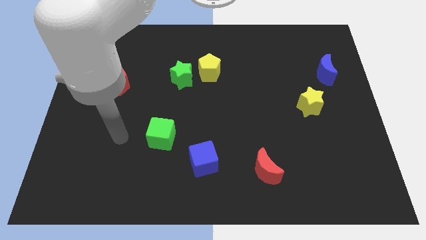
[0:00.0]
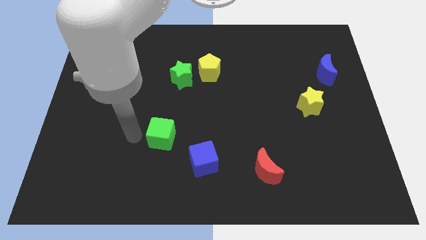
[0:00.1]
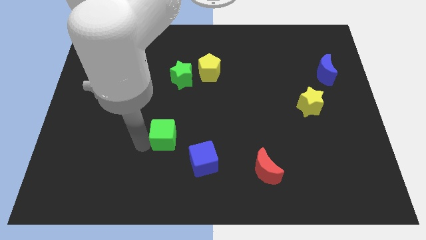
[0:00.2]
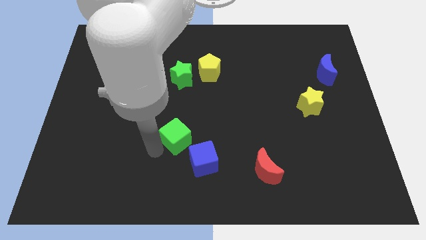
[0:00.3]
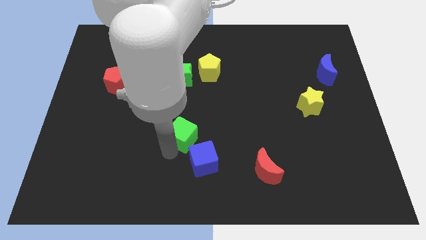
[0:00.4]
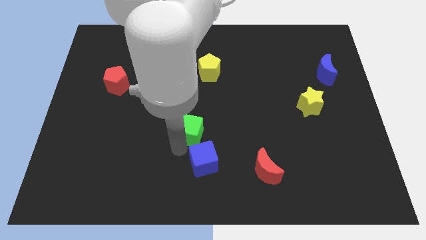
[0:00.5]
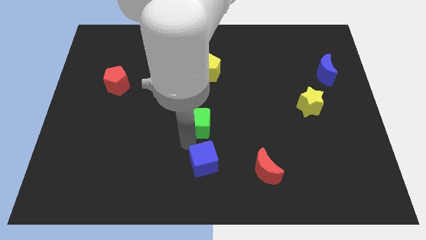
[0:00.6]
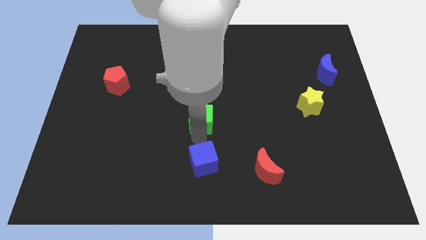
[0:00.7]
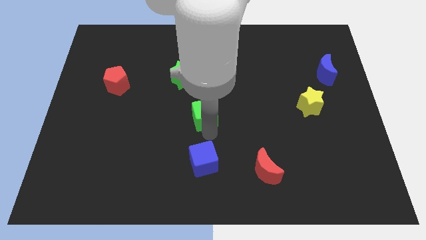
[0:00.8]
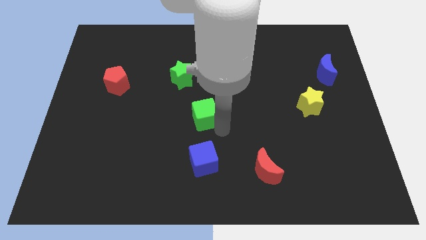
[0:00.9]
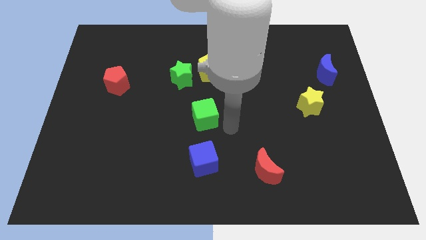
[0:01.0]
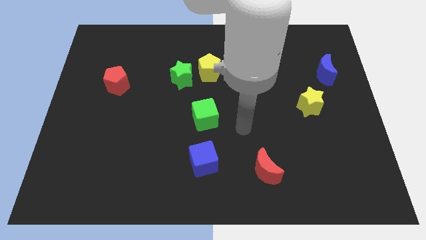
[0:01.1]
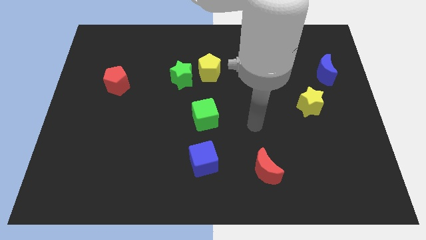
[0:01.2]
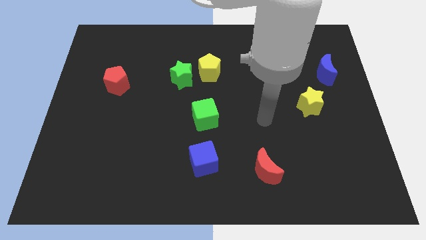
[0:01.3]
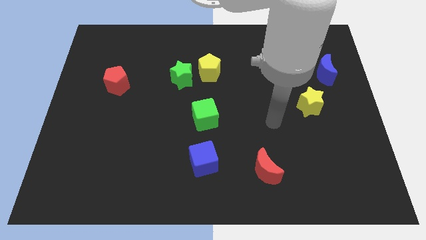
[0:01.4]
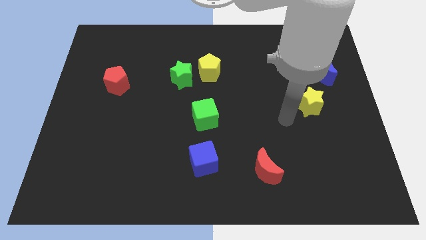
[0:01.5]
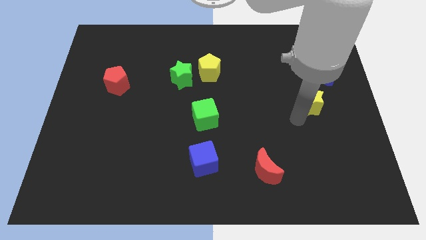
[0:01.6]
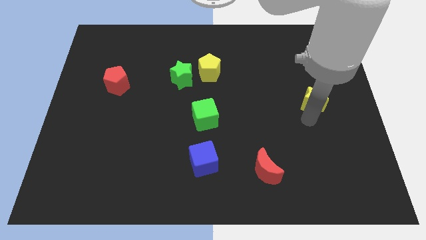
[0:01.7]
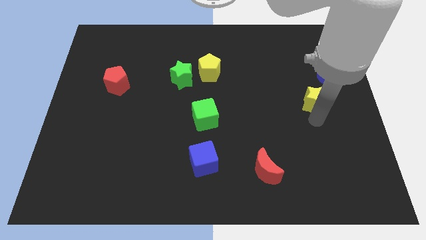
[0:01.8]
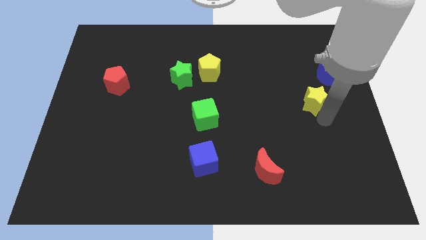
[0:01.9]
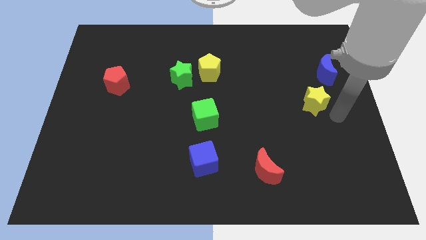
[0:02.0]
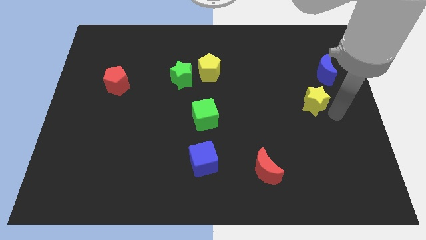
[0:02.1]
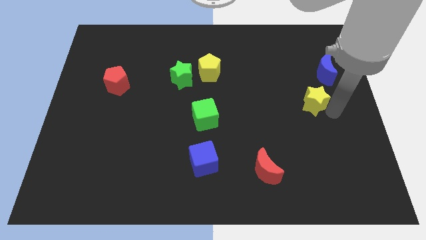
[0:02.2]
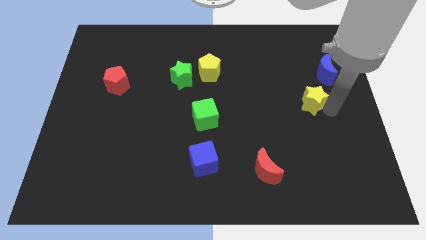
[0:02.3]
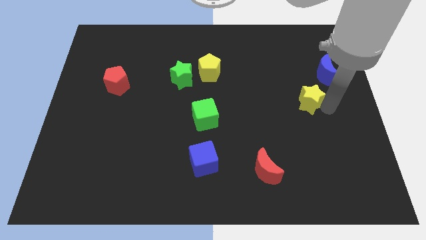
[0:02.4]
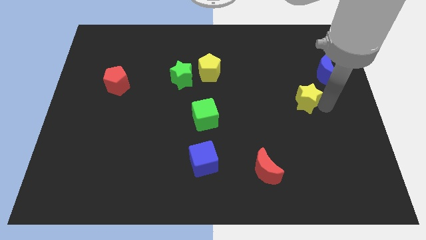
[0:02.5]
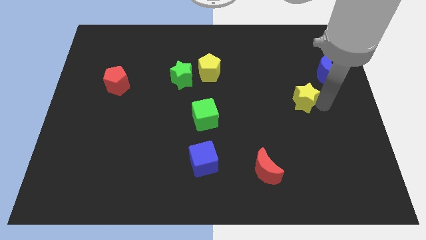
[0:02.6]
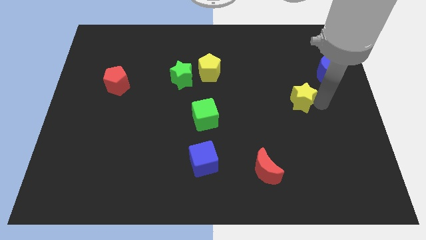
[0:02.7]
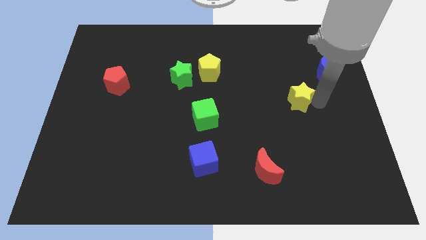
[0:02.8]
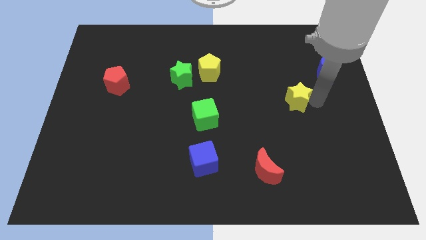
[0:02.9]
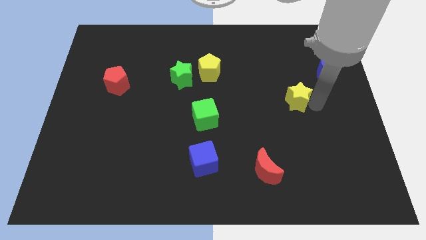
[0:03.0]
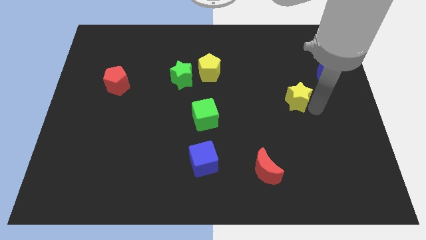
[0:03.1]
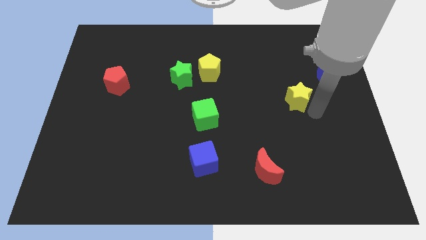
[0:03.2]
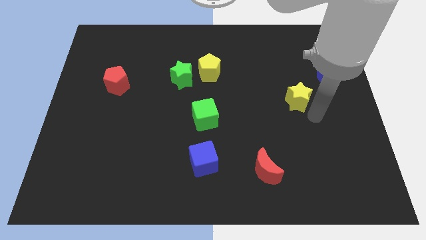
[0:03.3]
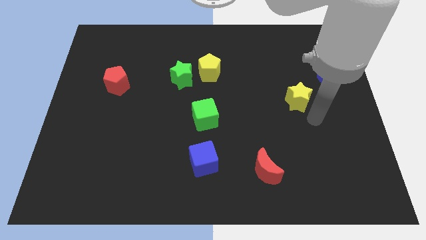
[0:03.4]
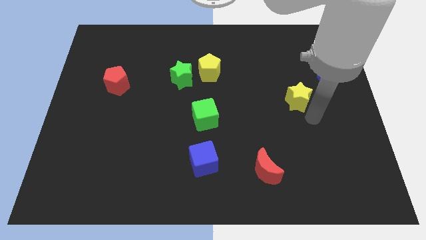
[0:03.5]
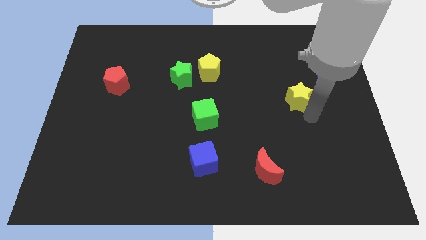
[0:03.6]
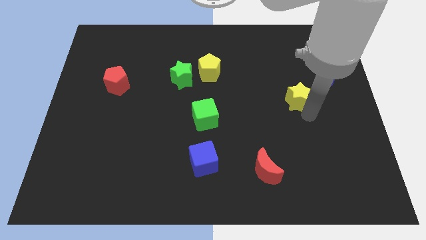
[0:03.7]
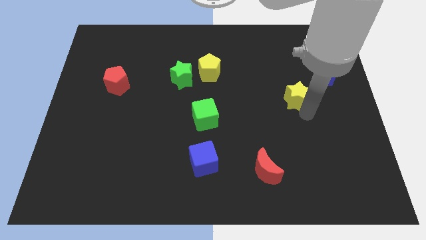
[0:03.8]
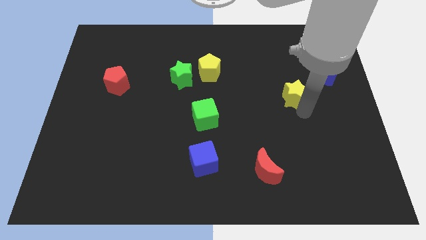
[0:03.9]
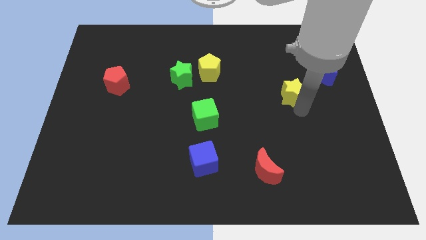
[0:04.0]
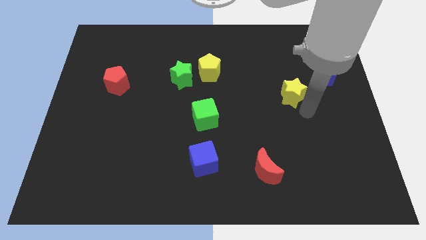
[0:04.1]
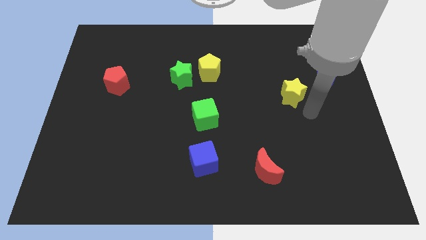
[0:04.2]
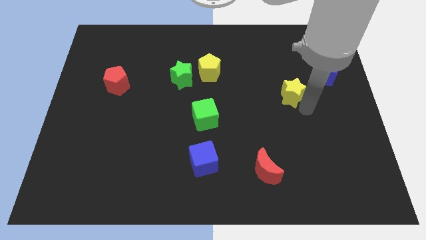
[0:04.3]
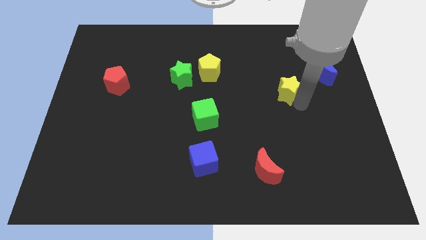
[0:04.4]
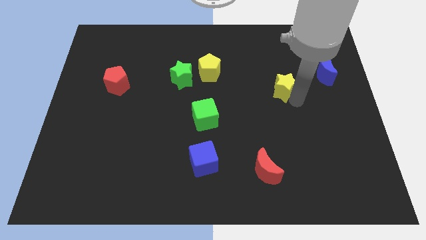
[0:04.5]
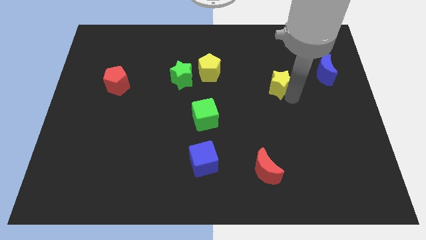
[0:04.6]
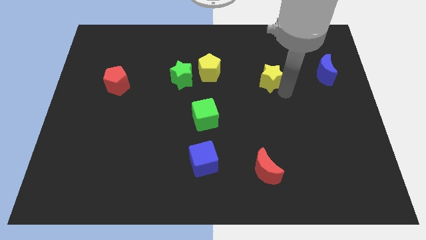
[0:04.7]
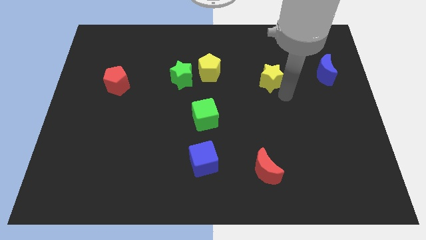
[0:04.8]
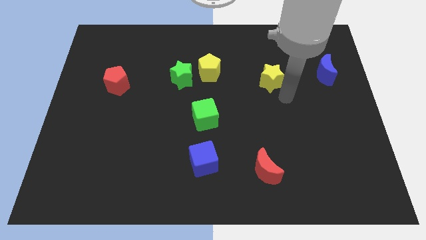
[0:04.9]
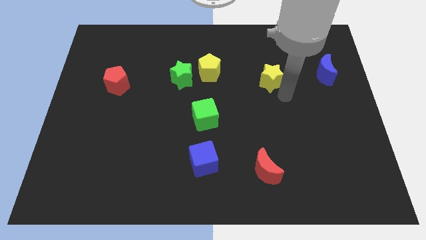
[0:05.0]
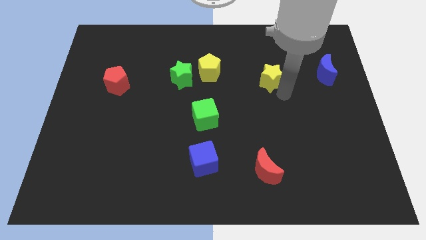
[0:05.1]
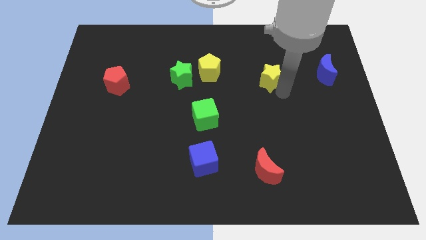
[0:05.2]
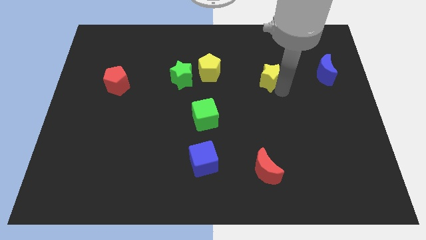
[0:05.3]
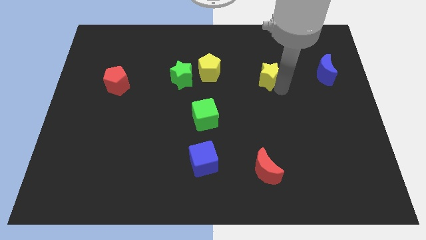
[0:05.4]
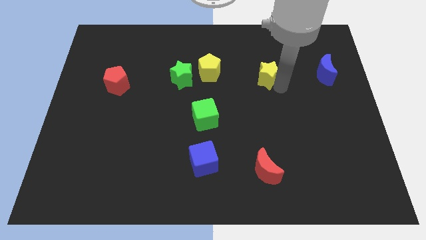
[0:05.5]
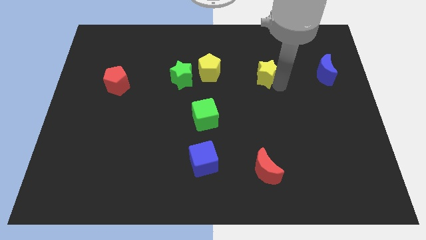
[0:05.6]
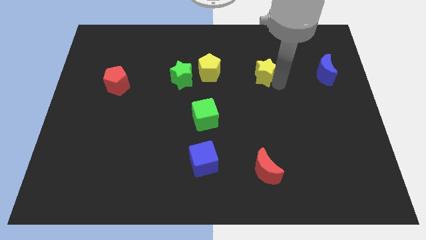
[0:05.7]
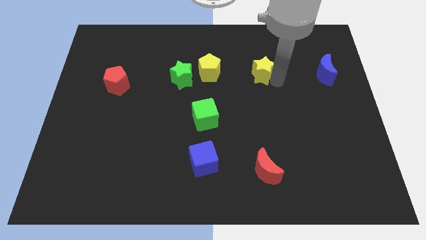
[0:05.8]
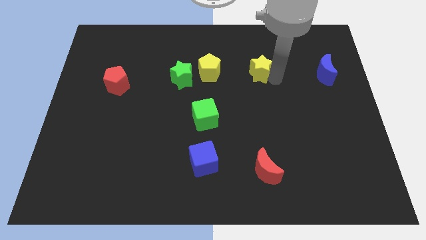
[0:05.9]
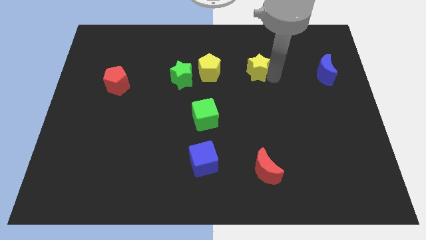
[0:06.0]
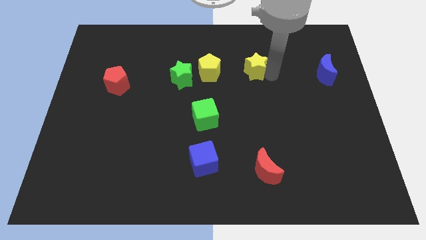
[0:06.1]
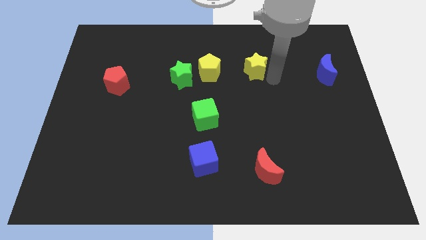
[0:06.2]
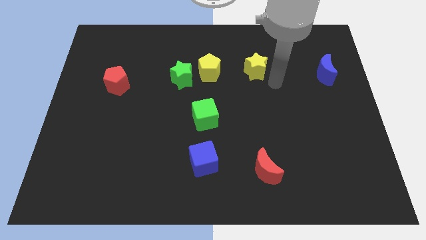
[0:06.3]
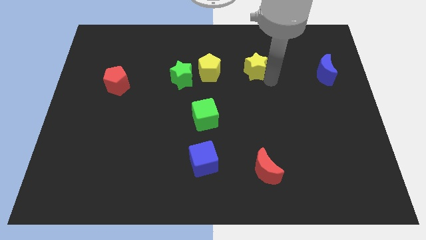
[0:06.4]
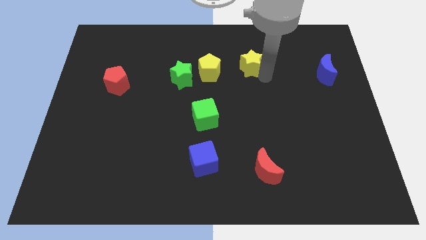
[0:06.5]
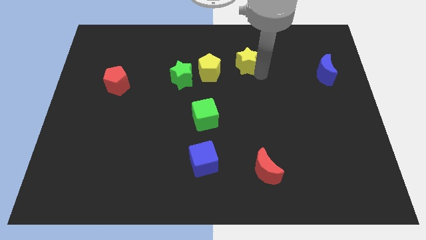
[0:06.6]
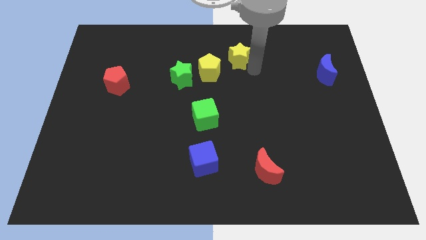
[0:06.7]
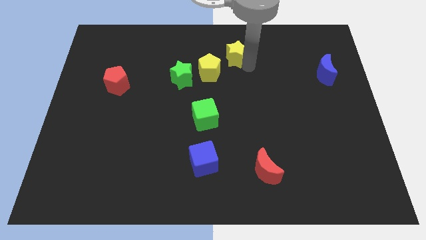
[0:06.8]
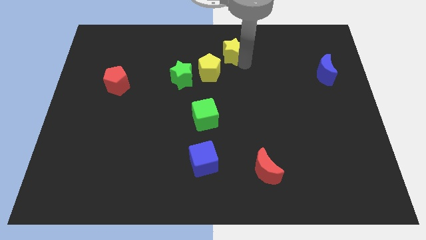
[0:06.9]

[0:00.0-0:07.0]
move the yellow star to the top side
